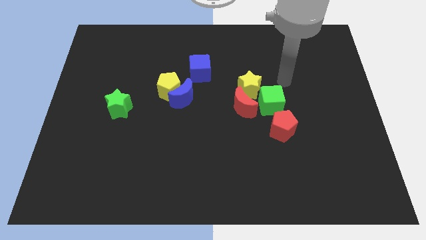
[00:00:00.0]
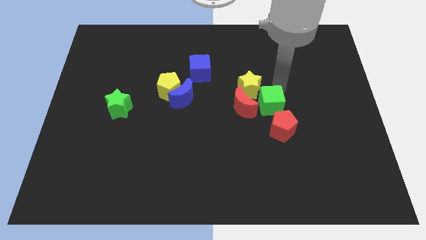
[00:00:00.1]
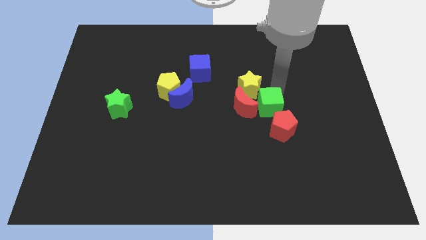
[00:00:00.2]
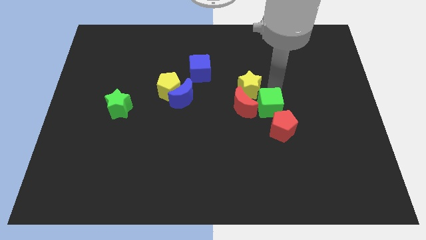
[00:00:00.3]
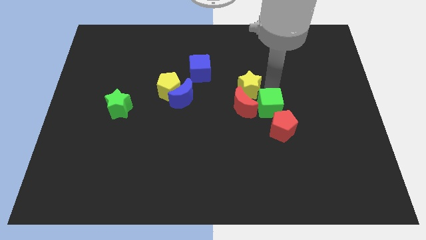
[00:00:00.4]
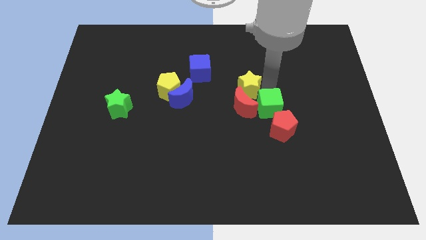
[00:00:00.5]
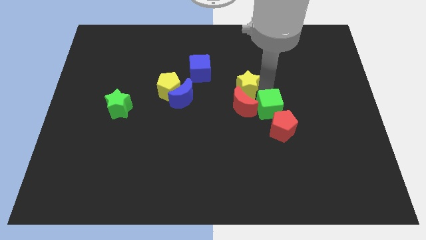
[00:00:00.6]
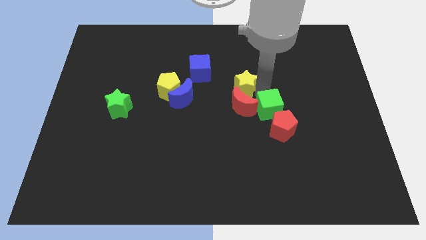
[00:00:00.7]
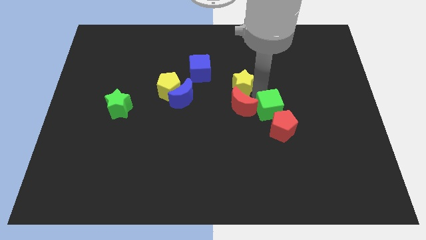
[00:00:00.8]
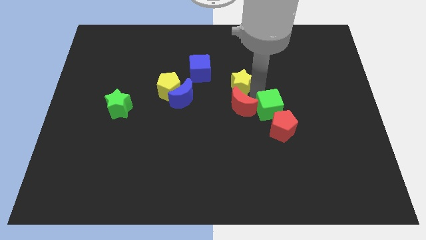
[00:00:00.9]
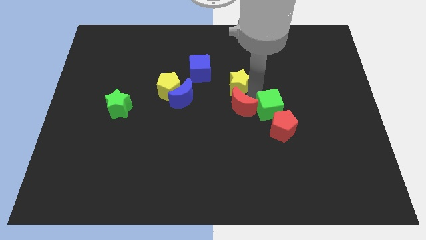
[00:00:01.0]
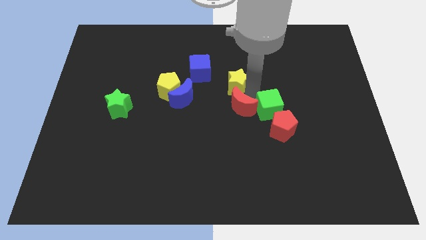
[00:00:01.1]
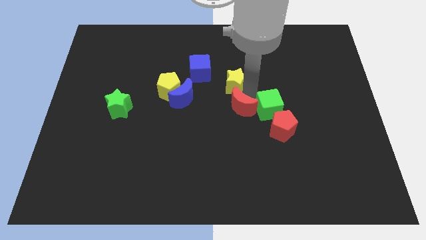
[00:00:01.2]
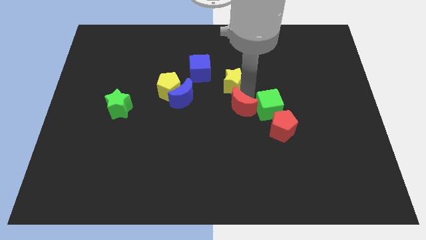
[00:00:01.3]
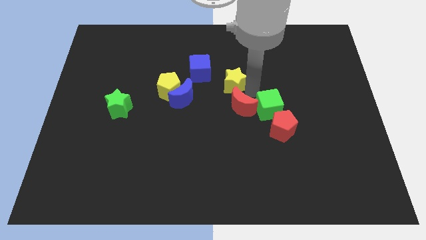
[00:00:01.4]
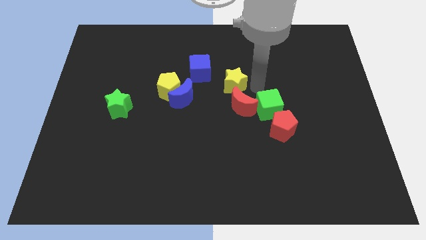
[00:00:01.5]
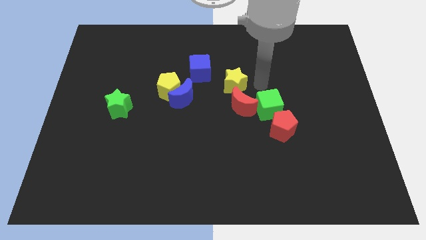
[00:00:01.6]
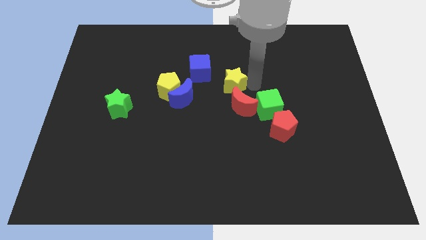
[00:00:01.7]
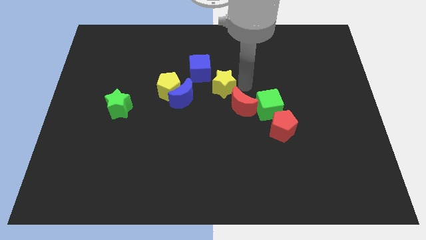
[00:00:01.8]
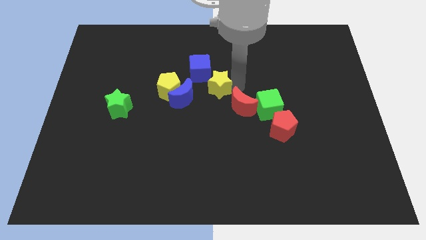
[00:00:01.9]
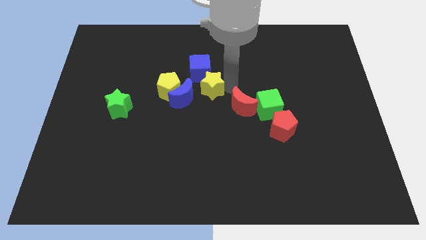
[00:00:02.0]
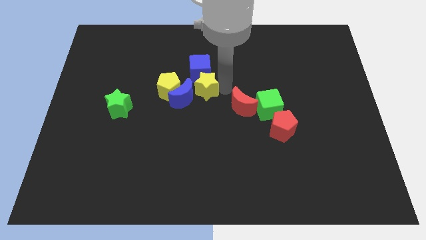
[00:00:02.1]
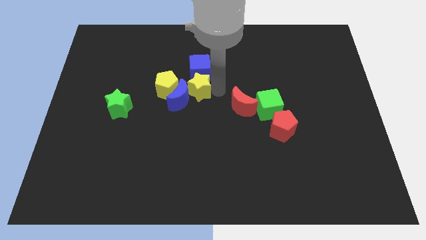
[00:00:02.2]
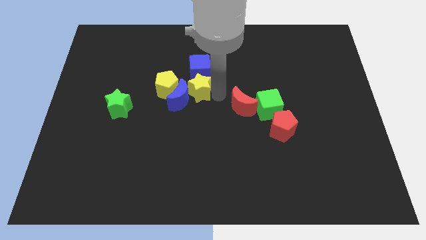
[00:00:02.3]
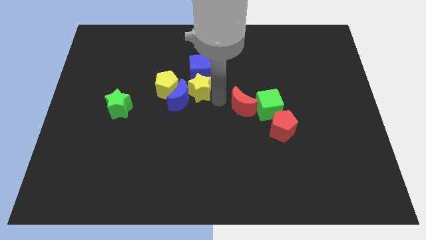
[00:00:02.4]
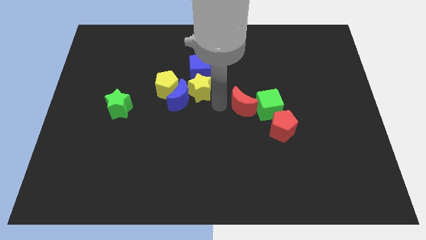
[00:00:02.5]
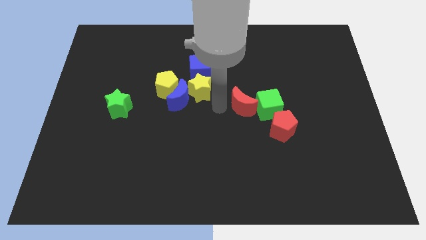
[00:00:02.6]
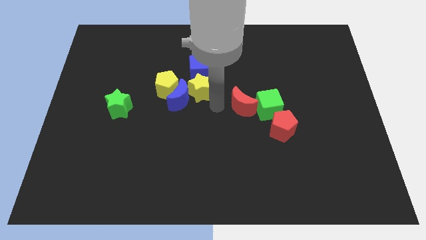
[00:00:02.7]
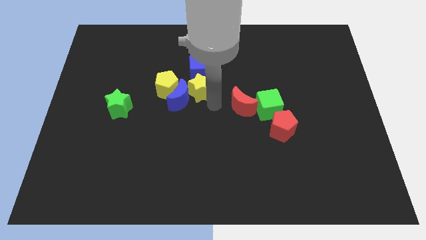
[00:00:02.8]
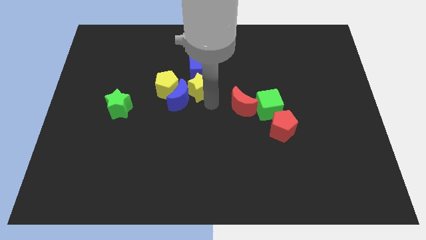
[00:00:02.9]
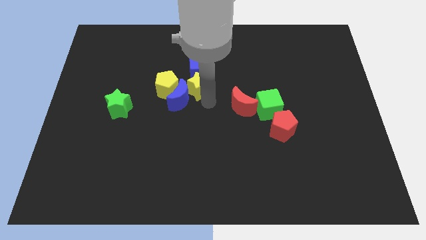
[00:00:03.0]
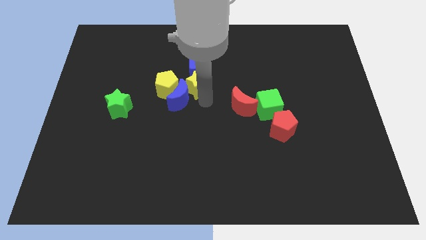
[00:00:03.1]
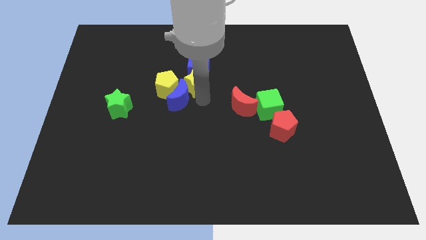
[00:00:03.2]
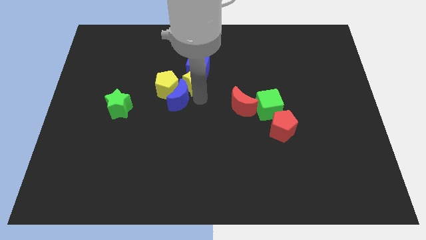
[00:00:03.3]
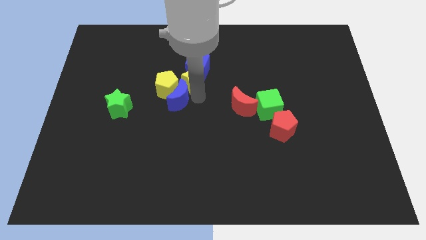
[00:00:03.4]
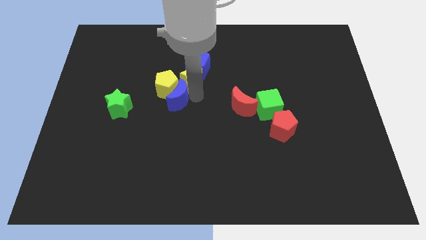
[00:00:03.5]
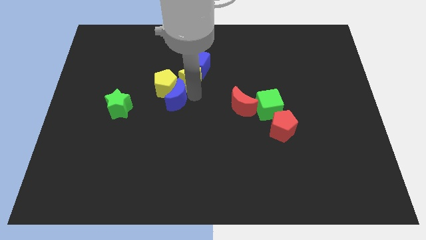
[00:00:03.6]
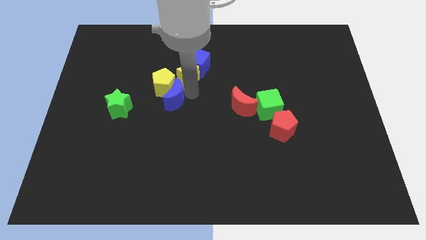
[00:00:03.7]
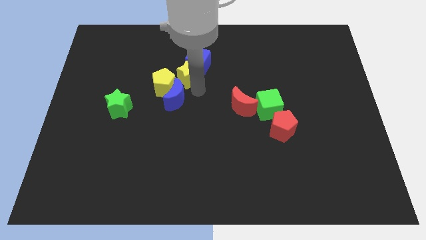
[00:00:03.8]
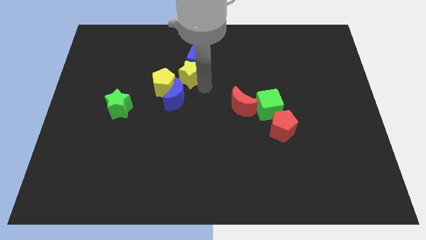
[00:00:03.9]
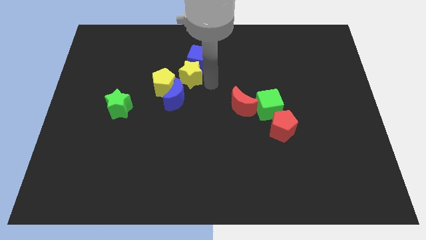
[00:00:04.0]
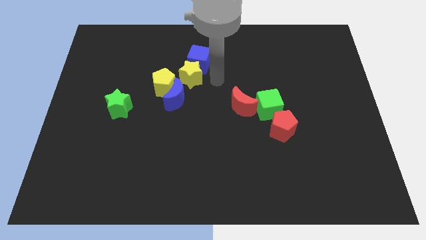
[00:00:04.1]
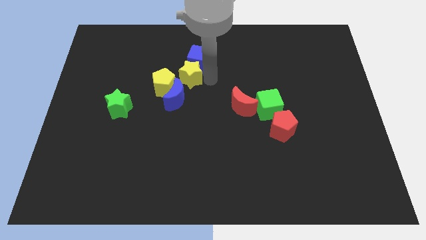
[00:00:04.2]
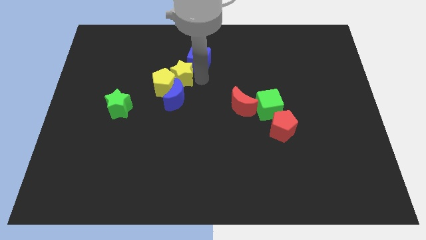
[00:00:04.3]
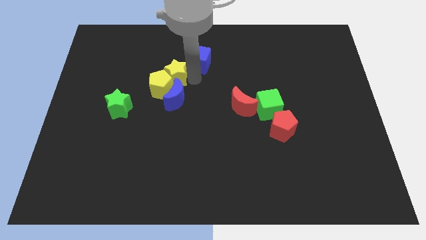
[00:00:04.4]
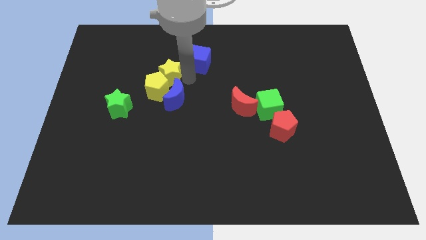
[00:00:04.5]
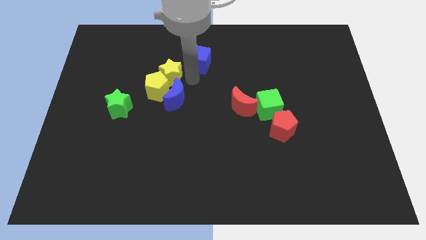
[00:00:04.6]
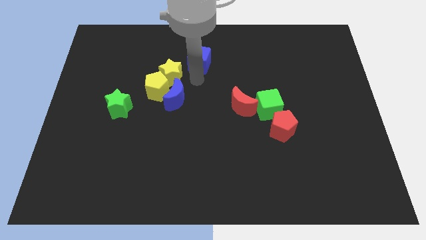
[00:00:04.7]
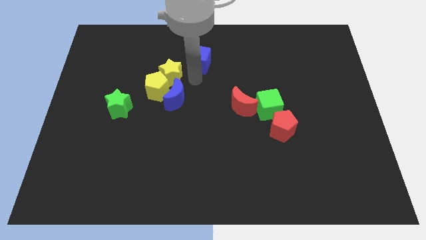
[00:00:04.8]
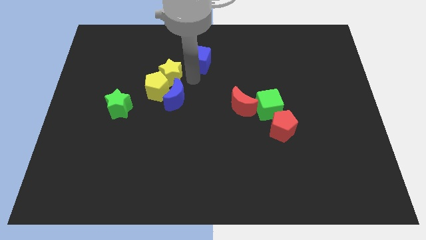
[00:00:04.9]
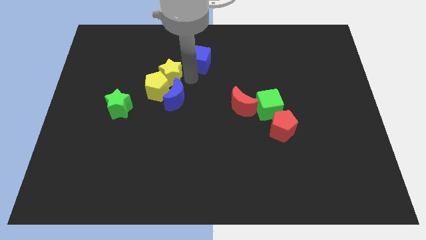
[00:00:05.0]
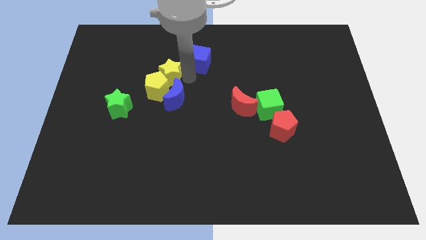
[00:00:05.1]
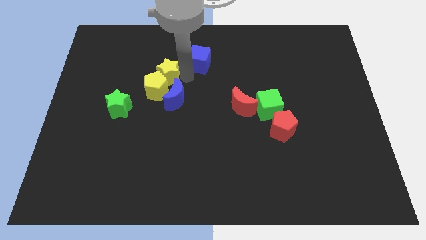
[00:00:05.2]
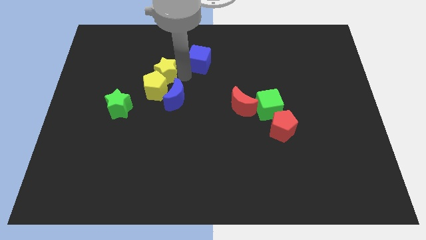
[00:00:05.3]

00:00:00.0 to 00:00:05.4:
slide the yellow star to the left

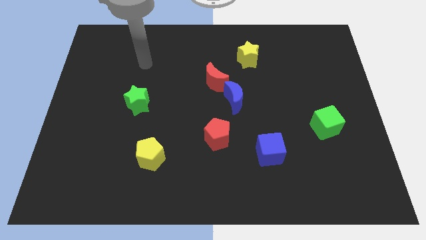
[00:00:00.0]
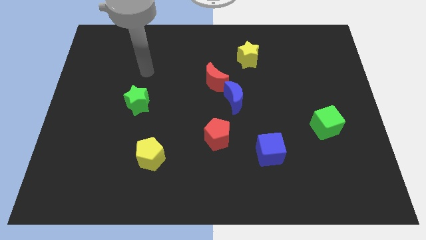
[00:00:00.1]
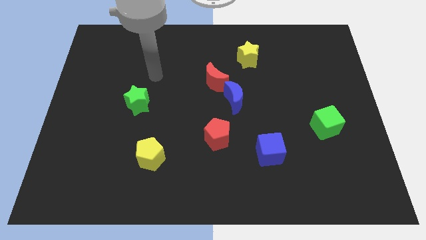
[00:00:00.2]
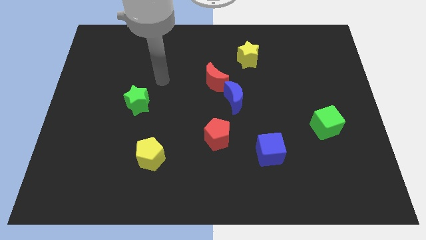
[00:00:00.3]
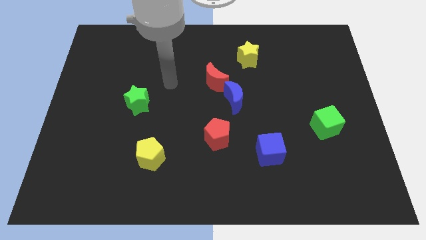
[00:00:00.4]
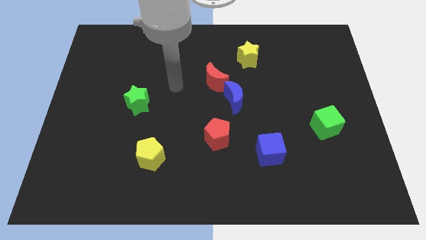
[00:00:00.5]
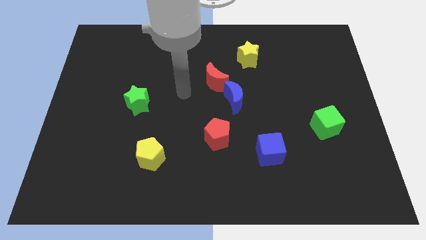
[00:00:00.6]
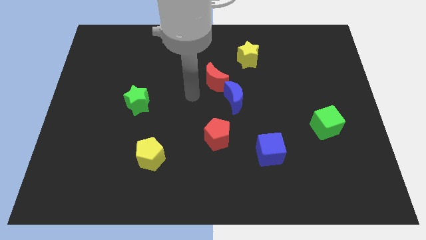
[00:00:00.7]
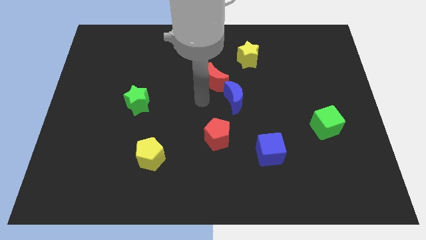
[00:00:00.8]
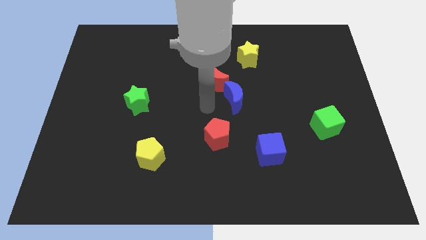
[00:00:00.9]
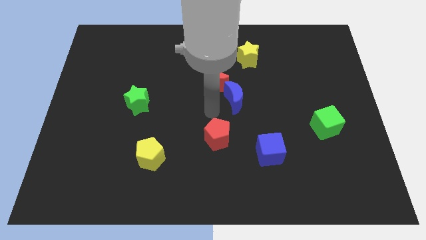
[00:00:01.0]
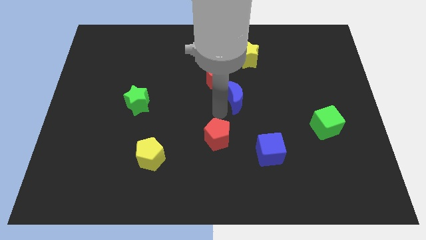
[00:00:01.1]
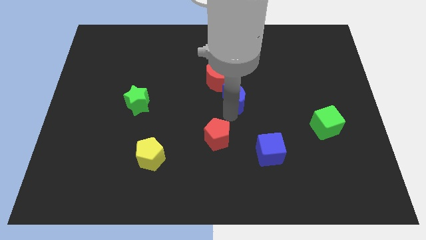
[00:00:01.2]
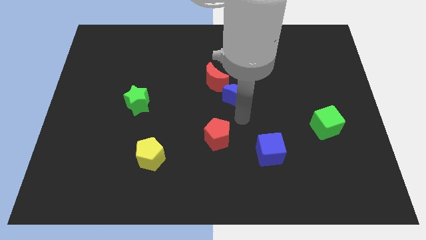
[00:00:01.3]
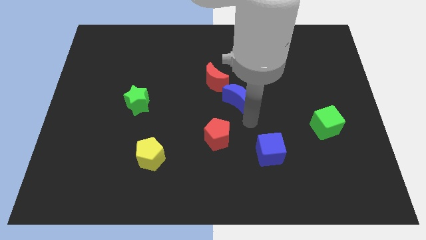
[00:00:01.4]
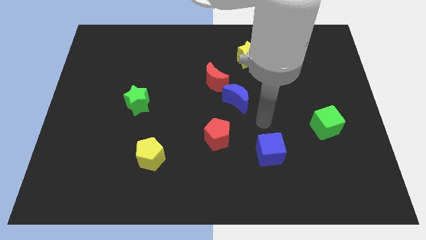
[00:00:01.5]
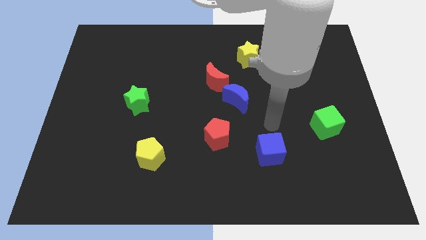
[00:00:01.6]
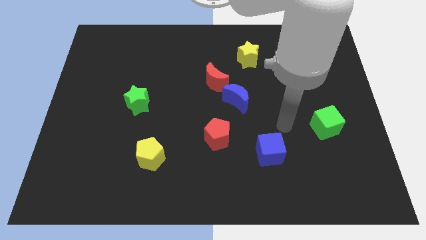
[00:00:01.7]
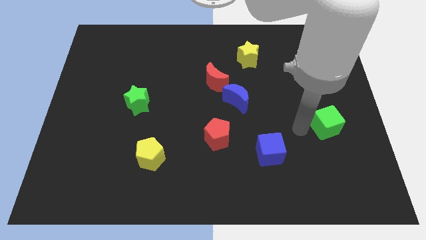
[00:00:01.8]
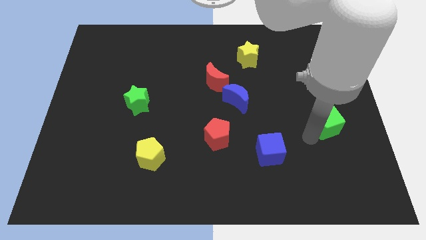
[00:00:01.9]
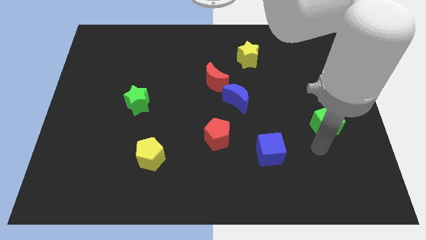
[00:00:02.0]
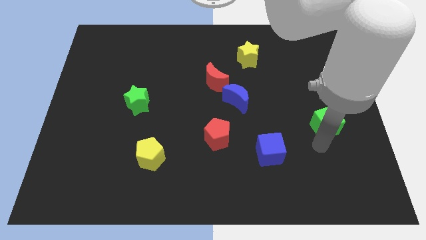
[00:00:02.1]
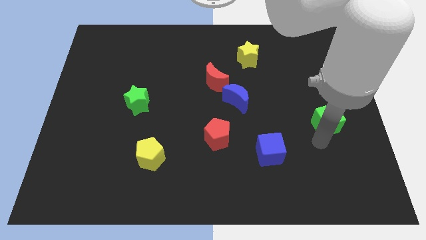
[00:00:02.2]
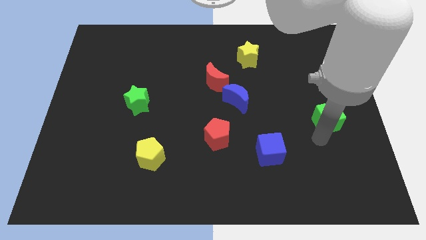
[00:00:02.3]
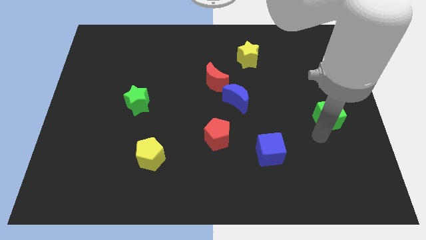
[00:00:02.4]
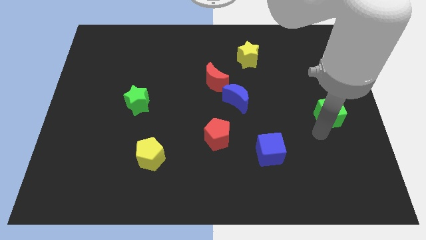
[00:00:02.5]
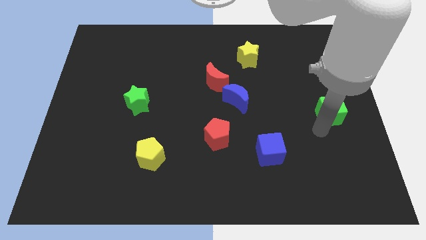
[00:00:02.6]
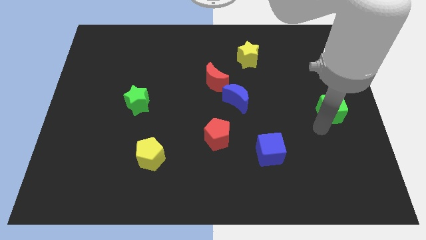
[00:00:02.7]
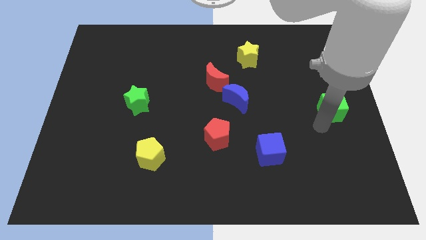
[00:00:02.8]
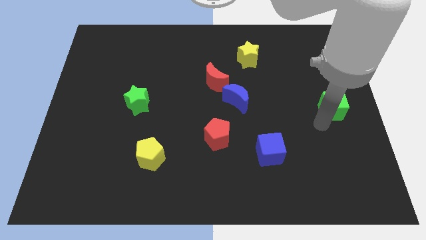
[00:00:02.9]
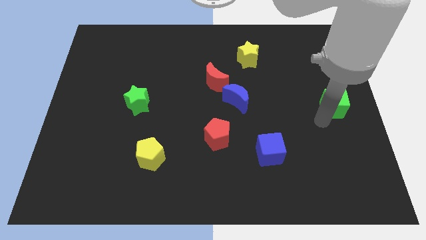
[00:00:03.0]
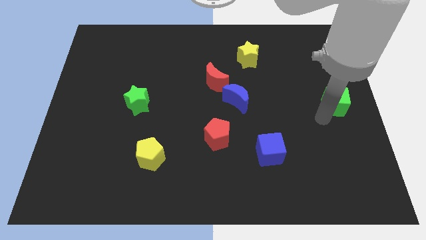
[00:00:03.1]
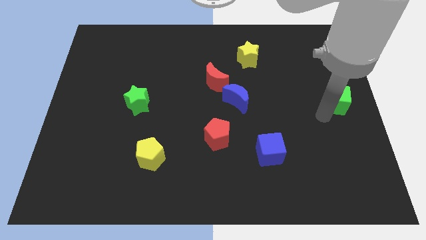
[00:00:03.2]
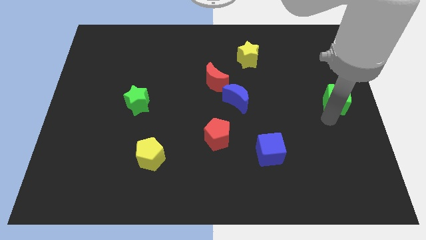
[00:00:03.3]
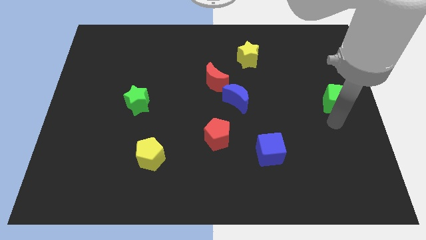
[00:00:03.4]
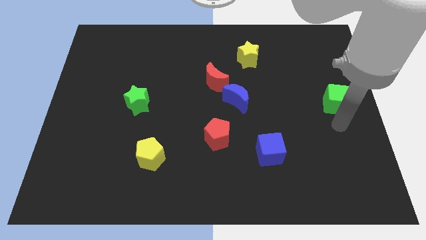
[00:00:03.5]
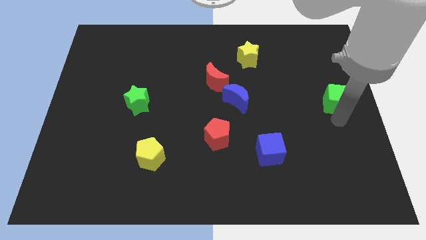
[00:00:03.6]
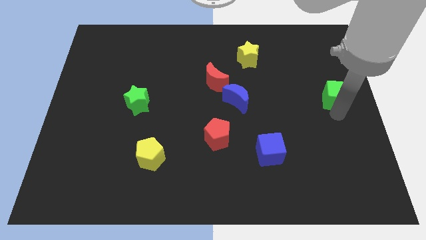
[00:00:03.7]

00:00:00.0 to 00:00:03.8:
slide the green cube slightly upwards
